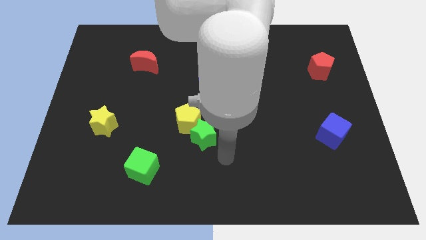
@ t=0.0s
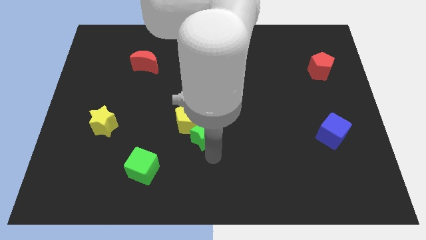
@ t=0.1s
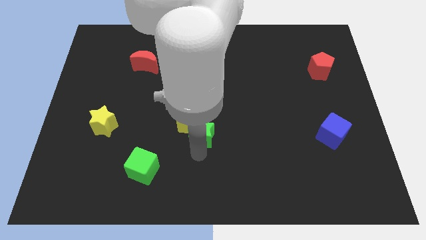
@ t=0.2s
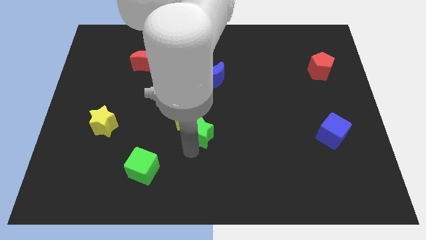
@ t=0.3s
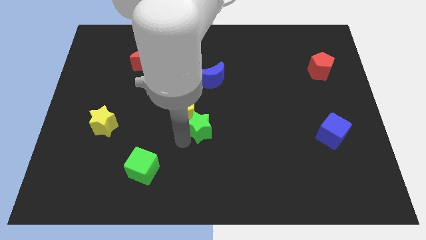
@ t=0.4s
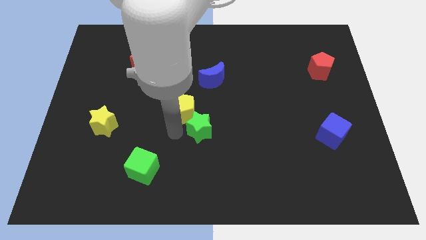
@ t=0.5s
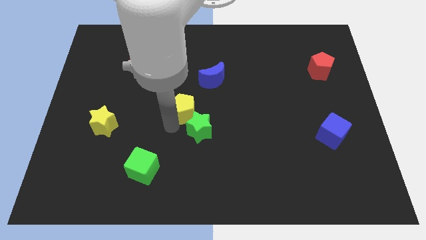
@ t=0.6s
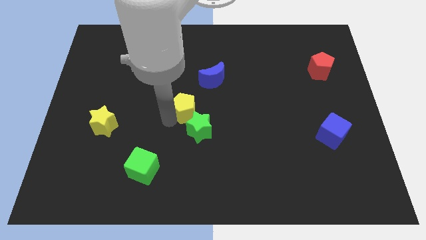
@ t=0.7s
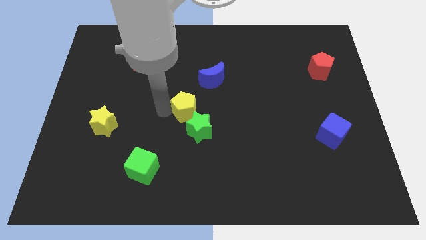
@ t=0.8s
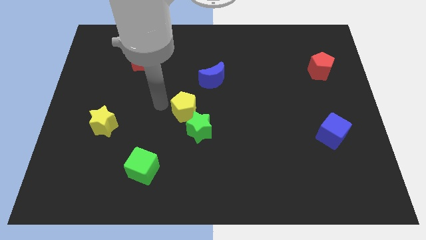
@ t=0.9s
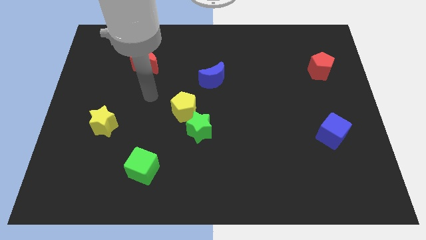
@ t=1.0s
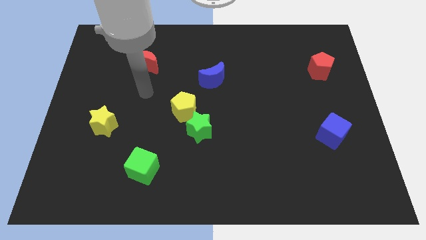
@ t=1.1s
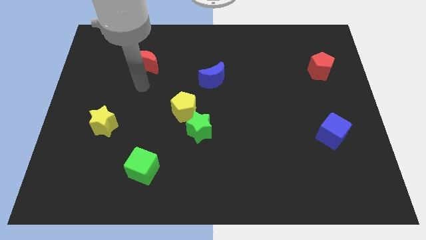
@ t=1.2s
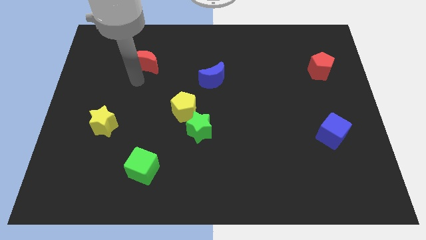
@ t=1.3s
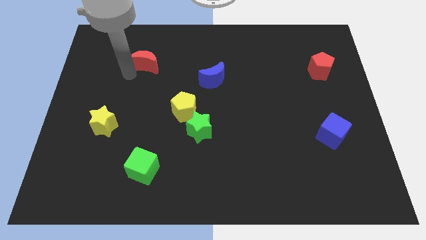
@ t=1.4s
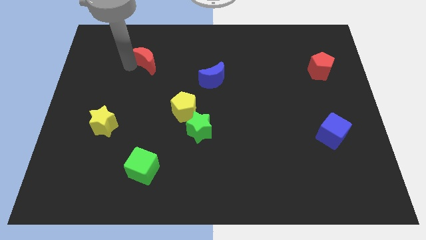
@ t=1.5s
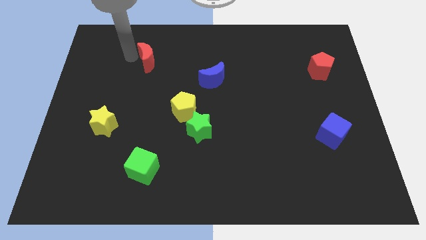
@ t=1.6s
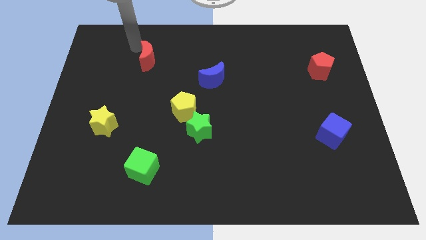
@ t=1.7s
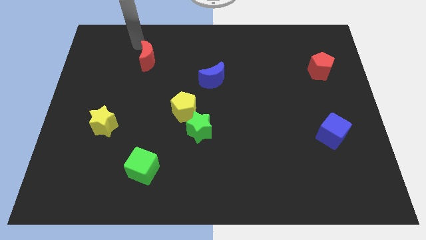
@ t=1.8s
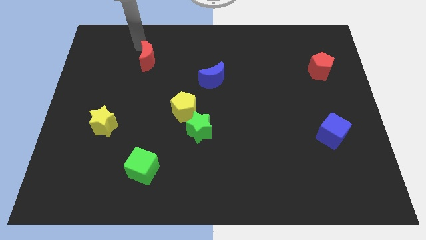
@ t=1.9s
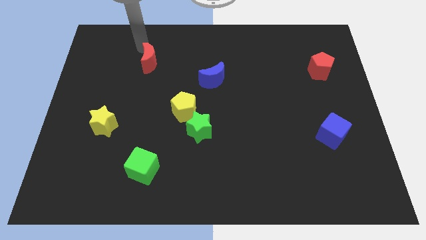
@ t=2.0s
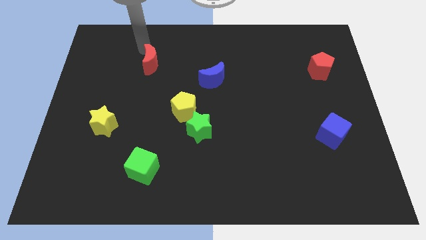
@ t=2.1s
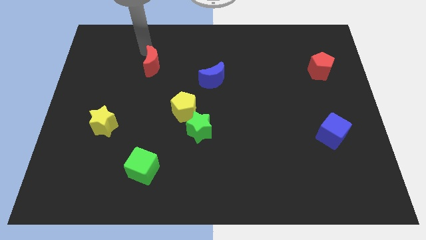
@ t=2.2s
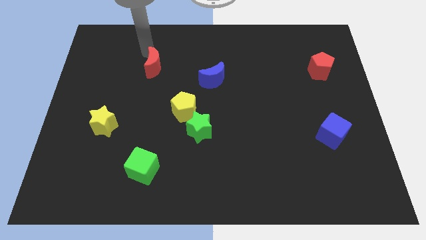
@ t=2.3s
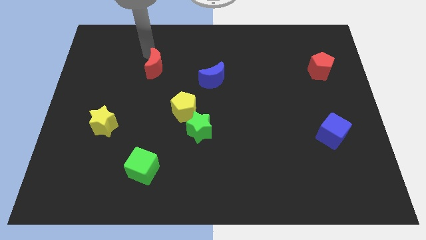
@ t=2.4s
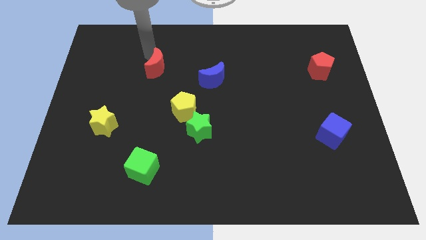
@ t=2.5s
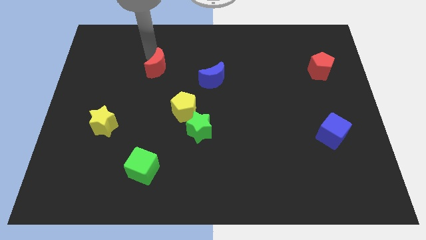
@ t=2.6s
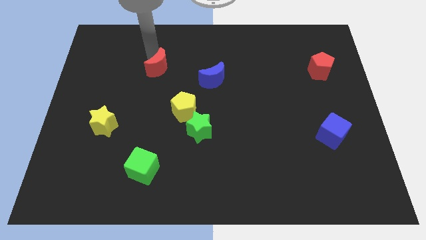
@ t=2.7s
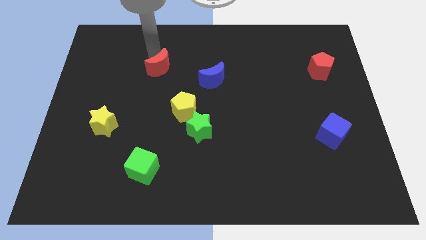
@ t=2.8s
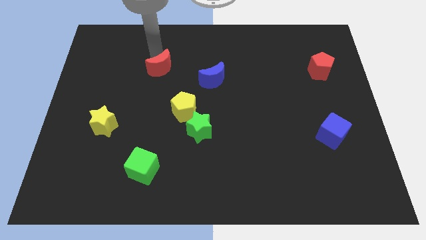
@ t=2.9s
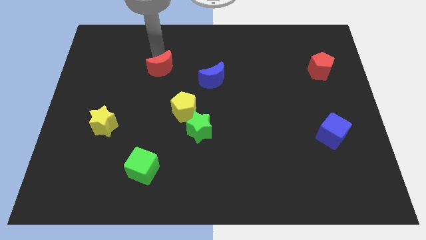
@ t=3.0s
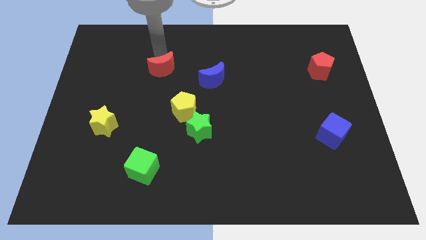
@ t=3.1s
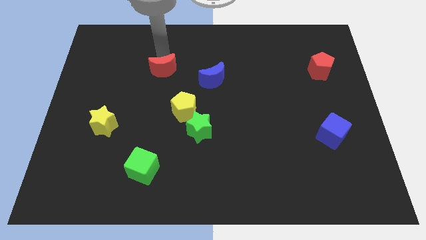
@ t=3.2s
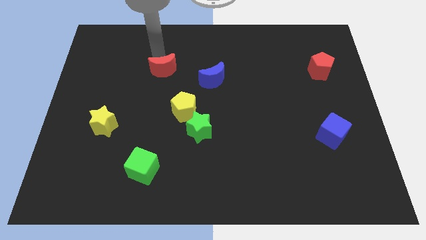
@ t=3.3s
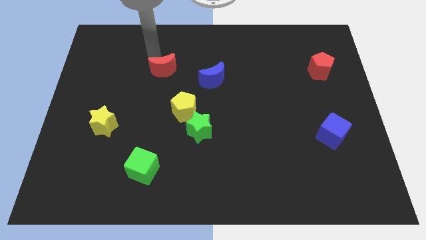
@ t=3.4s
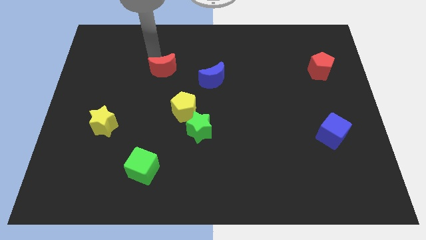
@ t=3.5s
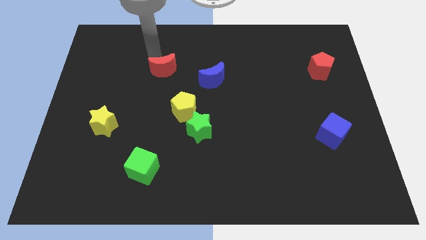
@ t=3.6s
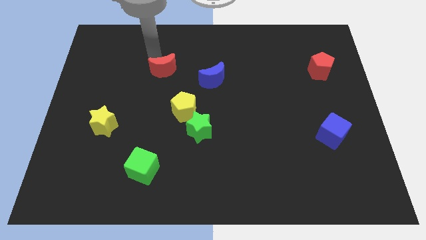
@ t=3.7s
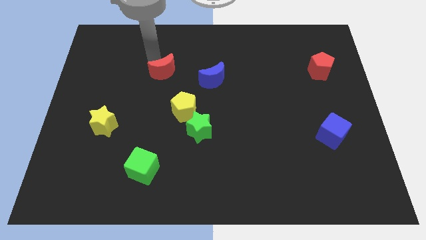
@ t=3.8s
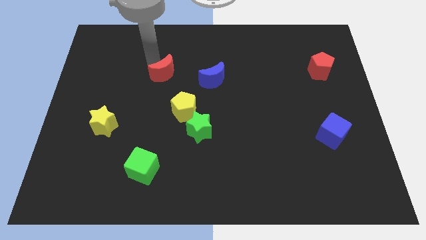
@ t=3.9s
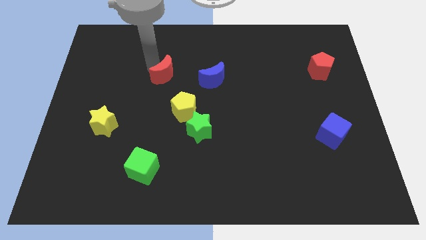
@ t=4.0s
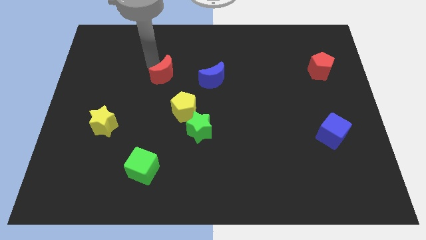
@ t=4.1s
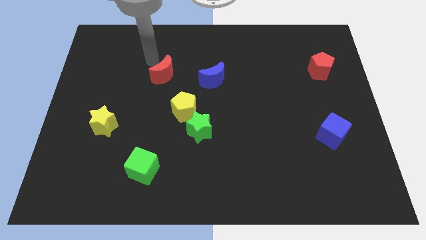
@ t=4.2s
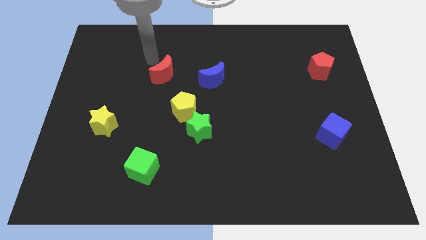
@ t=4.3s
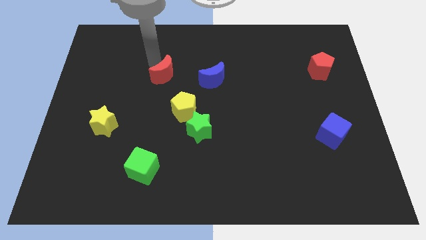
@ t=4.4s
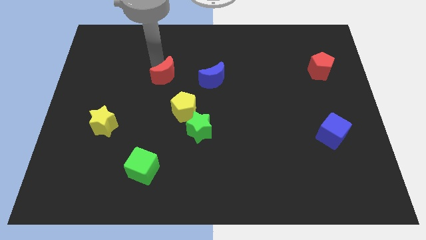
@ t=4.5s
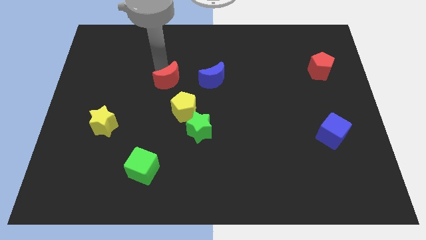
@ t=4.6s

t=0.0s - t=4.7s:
push the red moon a little bit downwards and then to the right

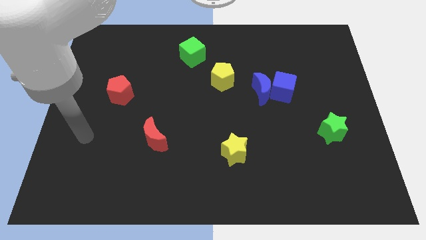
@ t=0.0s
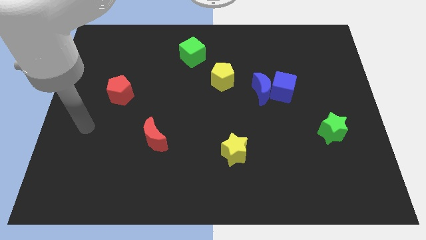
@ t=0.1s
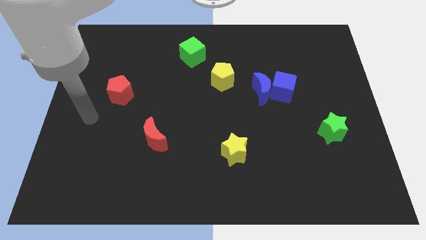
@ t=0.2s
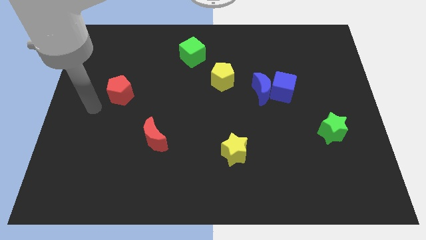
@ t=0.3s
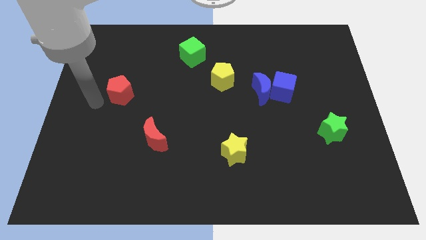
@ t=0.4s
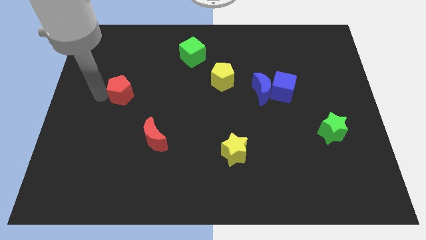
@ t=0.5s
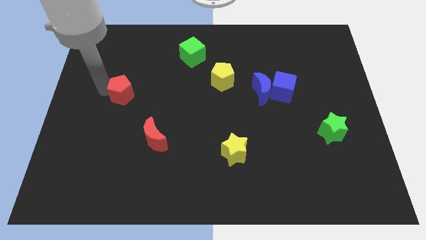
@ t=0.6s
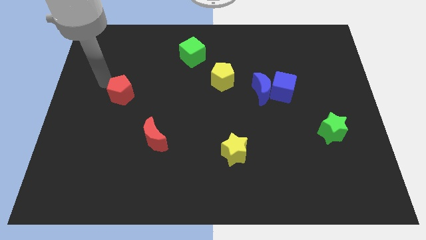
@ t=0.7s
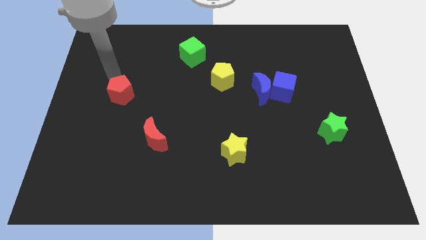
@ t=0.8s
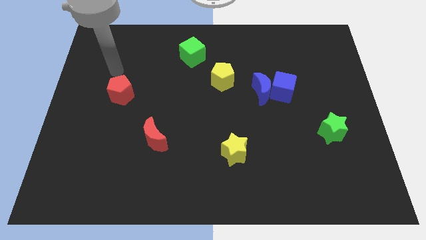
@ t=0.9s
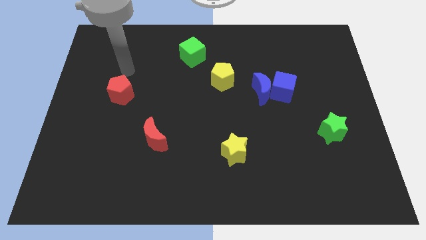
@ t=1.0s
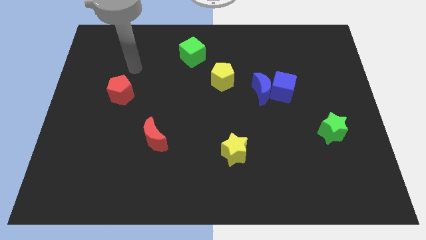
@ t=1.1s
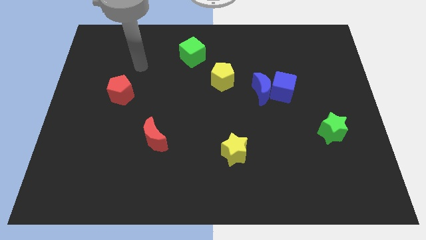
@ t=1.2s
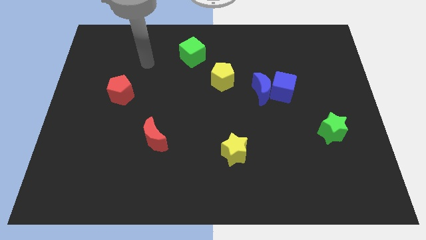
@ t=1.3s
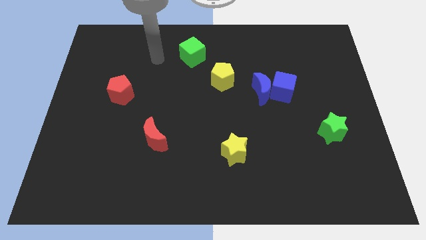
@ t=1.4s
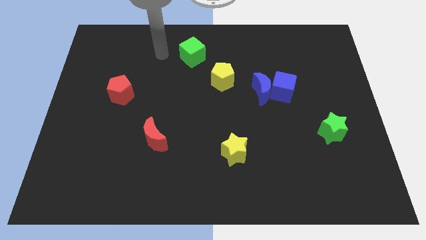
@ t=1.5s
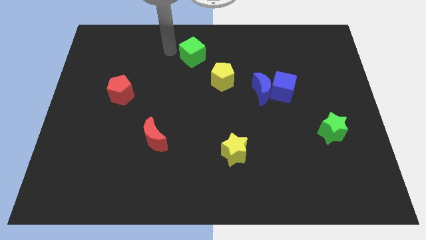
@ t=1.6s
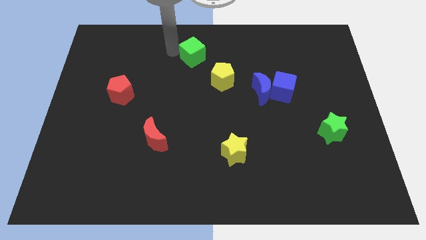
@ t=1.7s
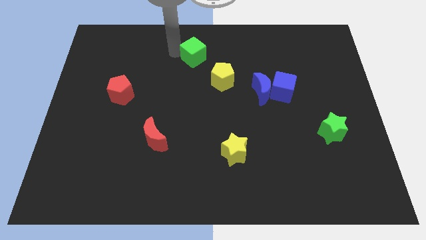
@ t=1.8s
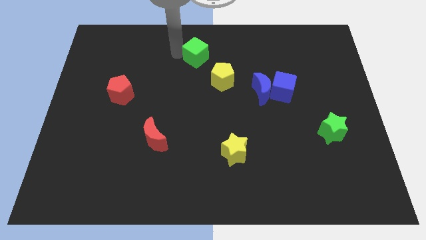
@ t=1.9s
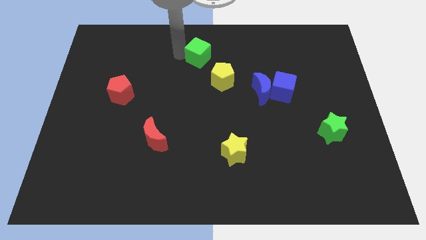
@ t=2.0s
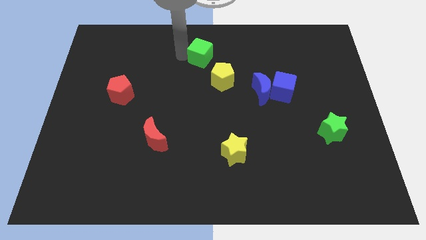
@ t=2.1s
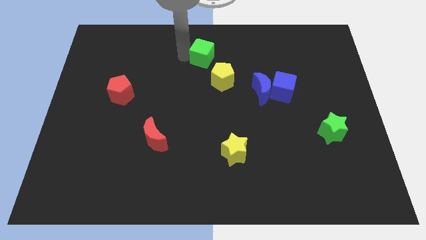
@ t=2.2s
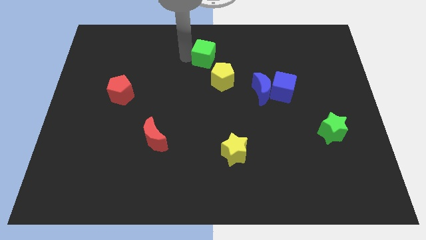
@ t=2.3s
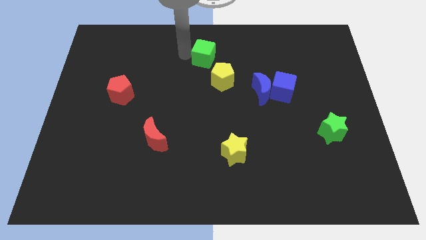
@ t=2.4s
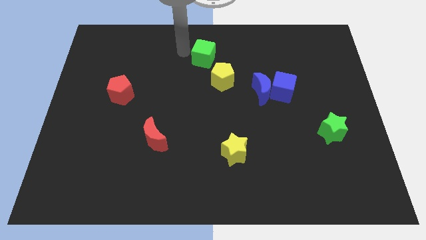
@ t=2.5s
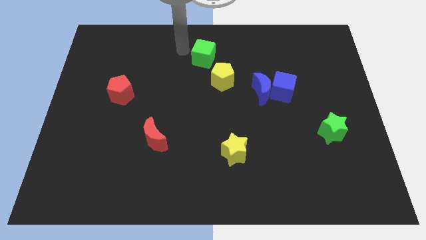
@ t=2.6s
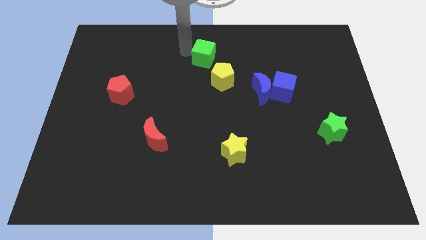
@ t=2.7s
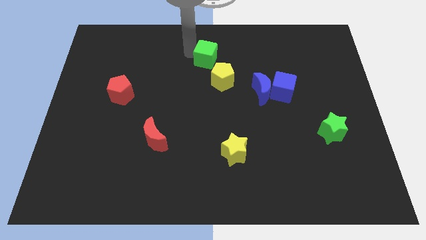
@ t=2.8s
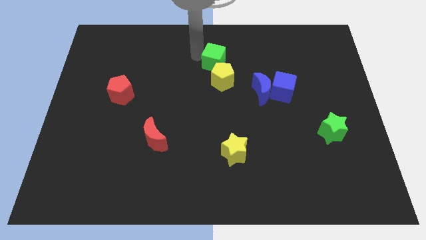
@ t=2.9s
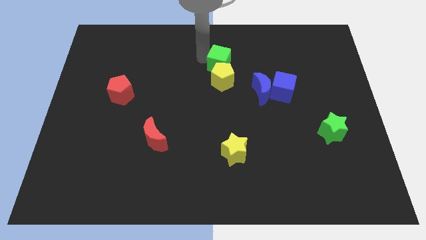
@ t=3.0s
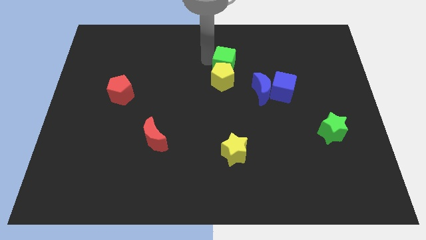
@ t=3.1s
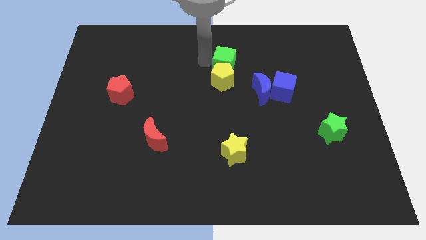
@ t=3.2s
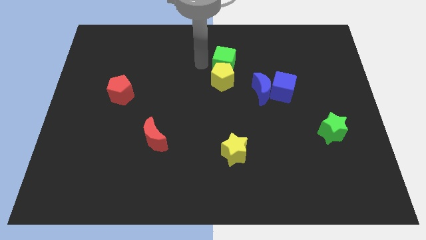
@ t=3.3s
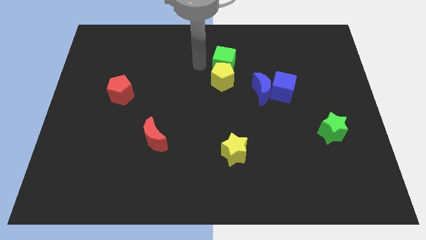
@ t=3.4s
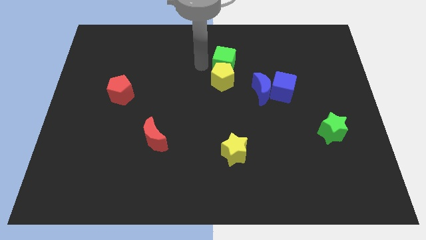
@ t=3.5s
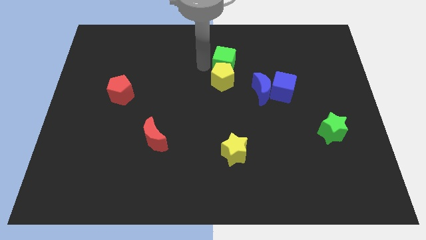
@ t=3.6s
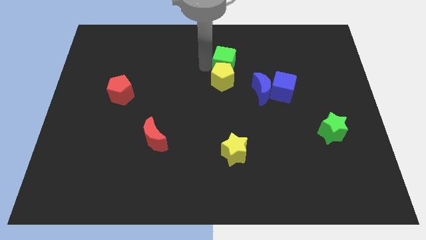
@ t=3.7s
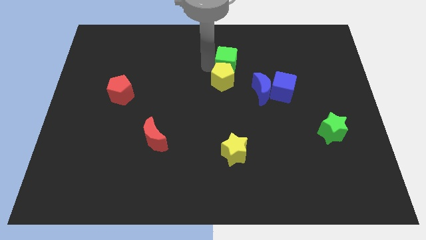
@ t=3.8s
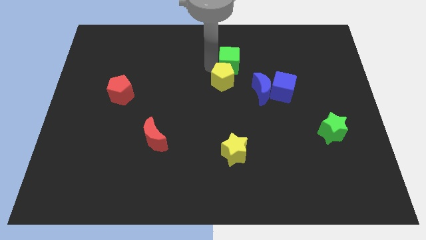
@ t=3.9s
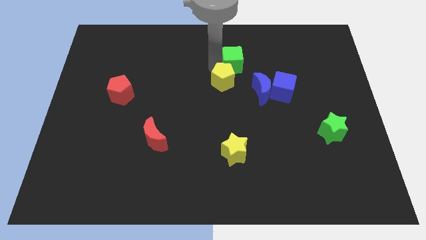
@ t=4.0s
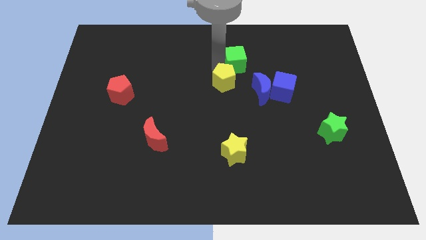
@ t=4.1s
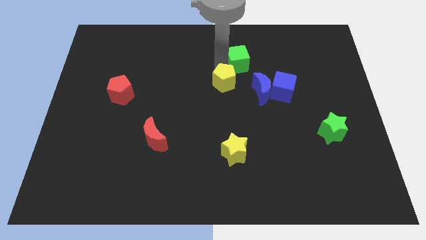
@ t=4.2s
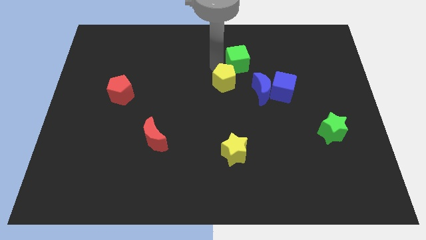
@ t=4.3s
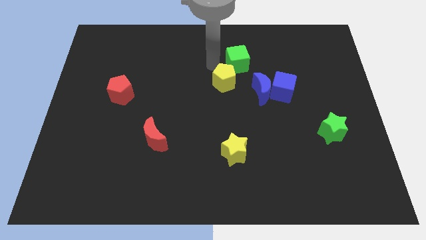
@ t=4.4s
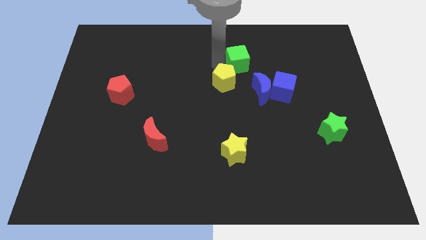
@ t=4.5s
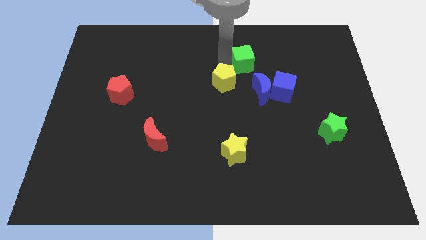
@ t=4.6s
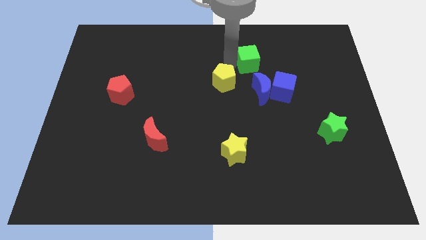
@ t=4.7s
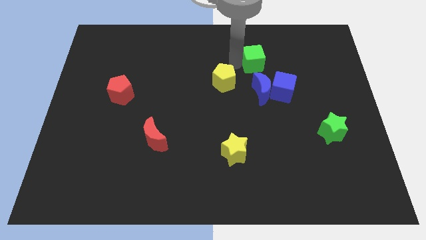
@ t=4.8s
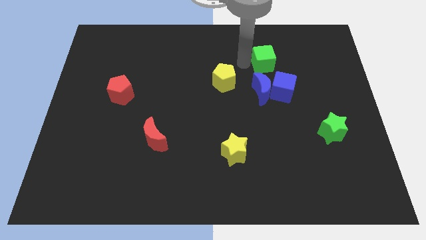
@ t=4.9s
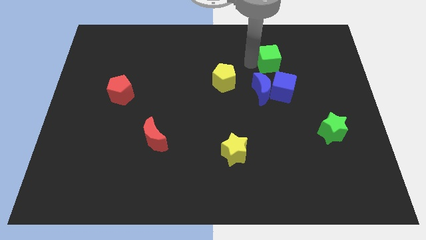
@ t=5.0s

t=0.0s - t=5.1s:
slide the green cube to the right
